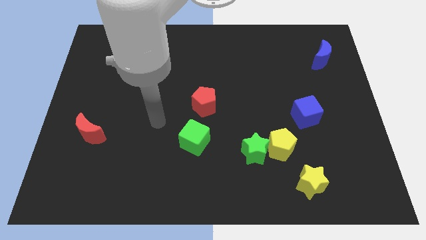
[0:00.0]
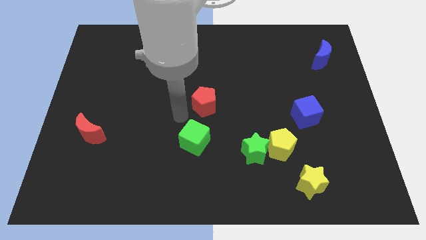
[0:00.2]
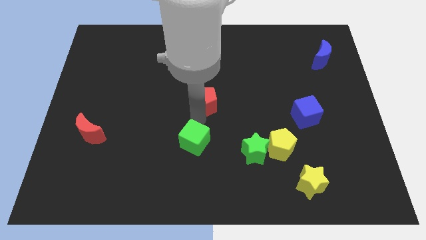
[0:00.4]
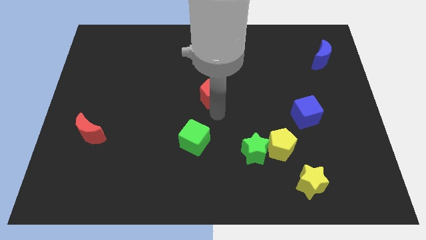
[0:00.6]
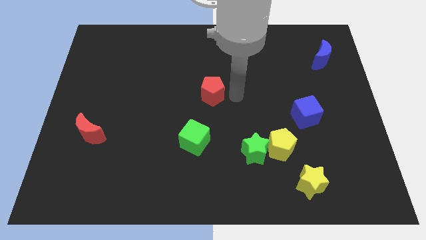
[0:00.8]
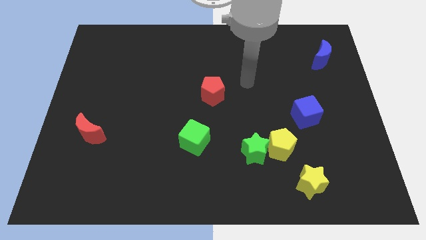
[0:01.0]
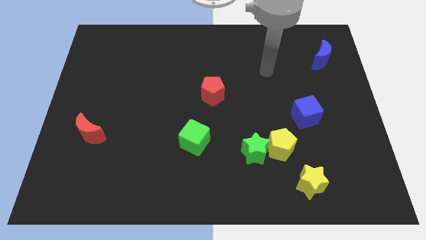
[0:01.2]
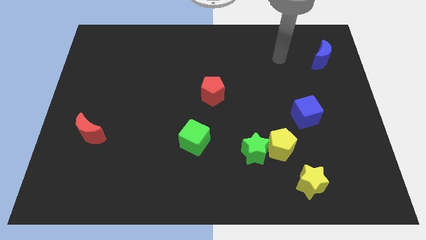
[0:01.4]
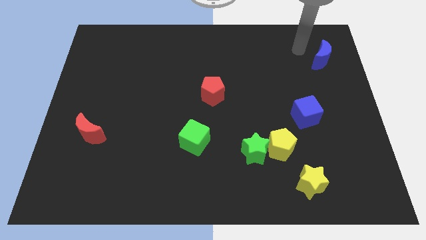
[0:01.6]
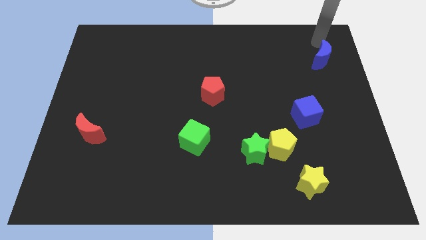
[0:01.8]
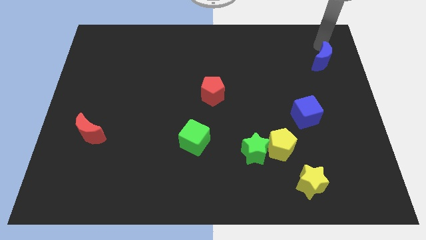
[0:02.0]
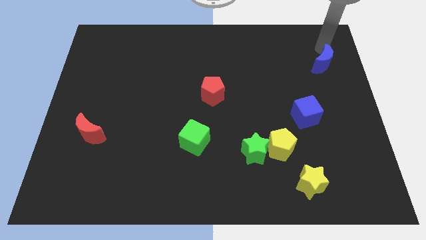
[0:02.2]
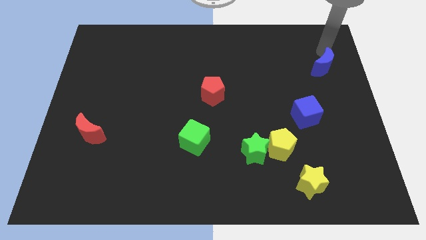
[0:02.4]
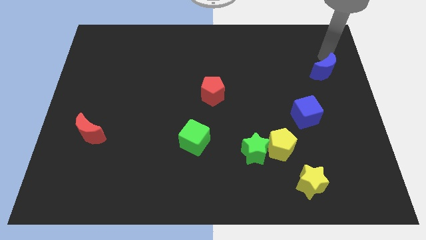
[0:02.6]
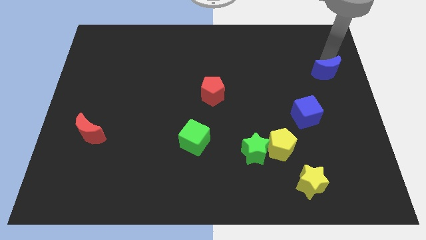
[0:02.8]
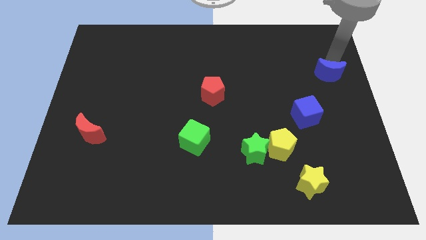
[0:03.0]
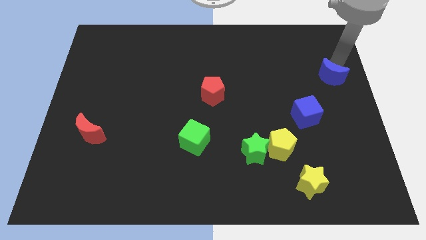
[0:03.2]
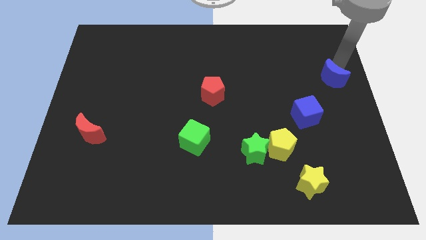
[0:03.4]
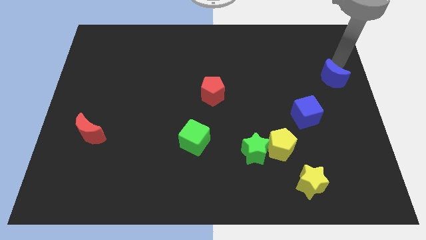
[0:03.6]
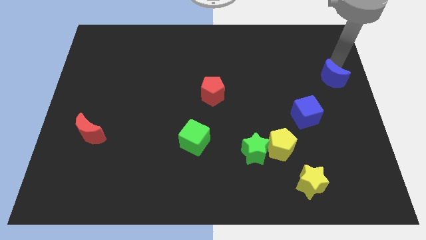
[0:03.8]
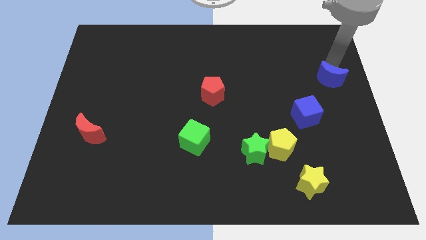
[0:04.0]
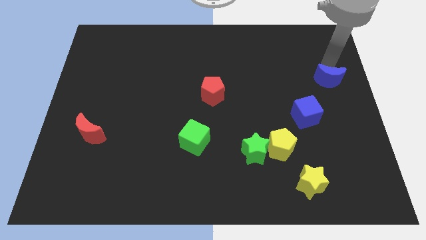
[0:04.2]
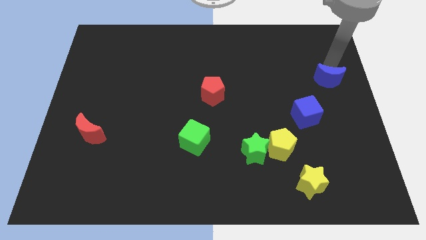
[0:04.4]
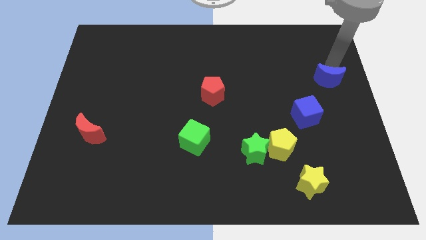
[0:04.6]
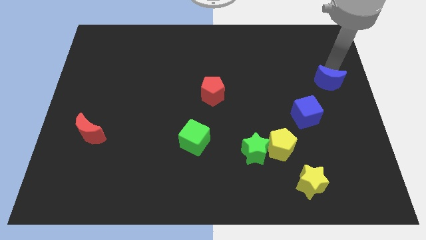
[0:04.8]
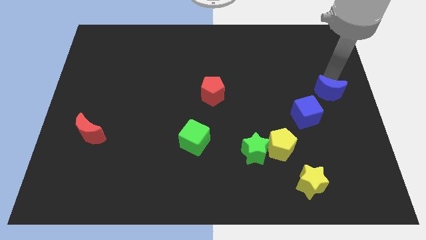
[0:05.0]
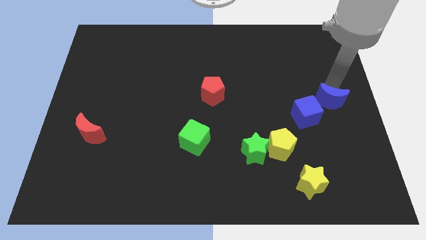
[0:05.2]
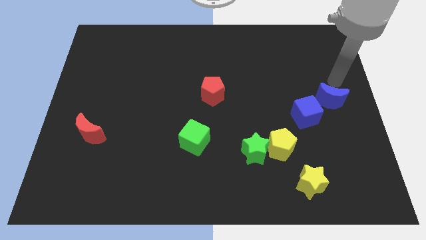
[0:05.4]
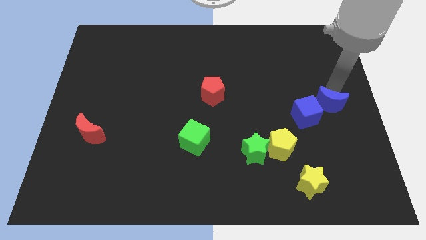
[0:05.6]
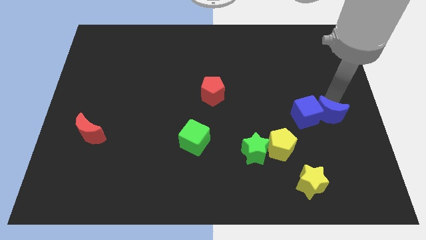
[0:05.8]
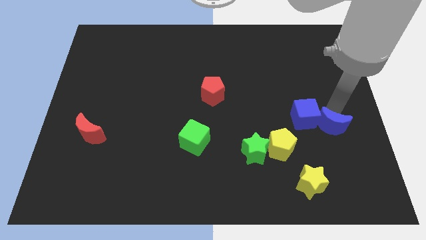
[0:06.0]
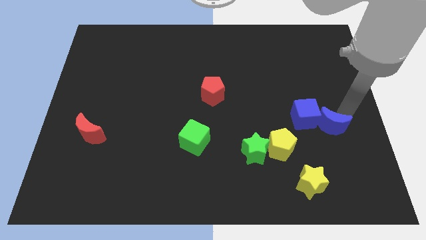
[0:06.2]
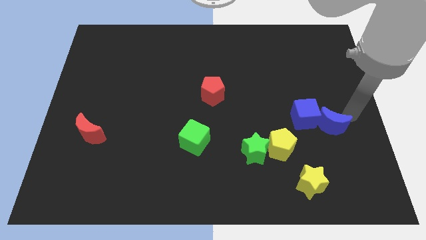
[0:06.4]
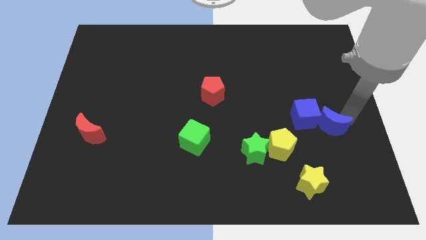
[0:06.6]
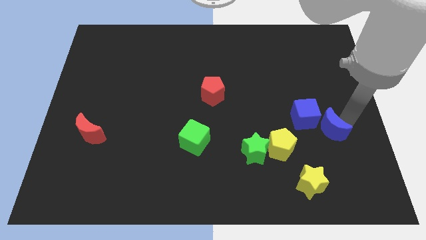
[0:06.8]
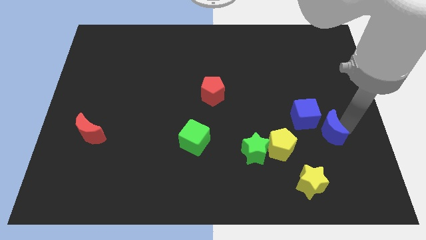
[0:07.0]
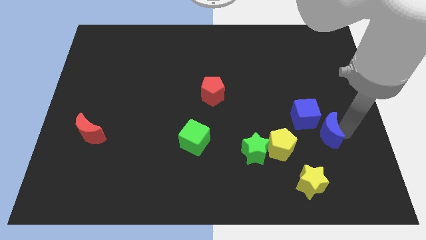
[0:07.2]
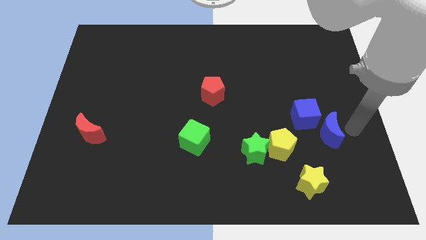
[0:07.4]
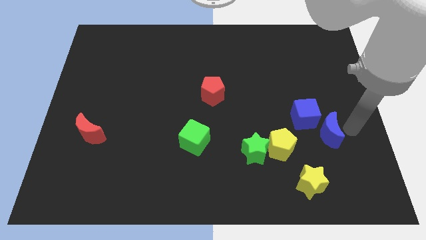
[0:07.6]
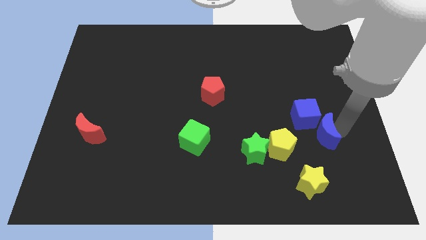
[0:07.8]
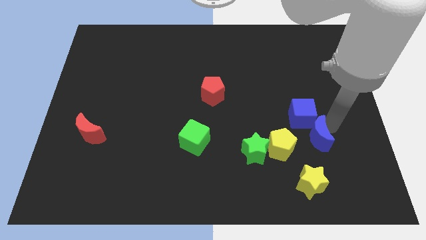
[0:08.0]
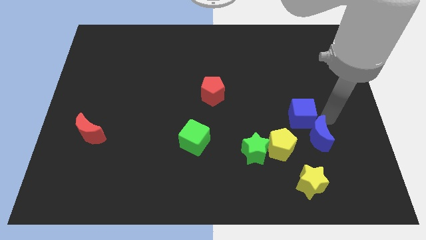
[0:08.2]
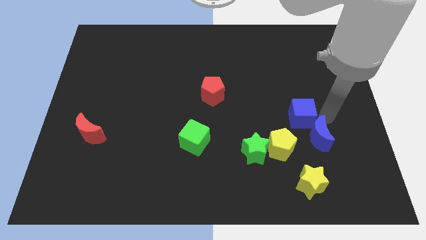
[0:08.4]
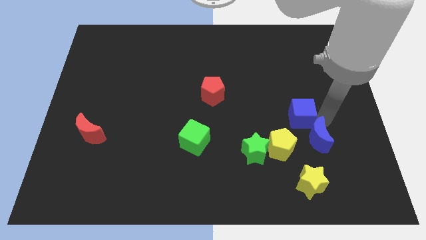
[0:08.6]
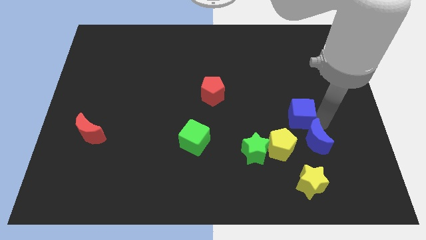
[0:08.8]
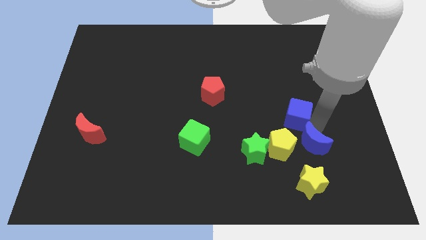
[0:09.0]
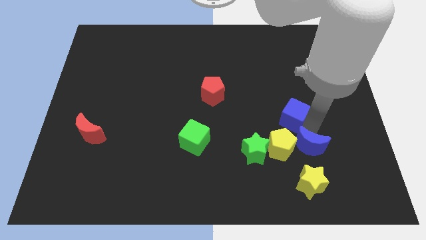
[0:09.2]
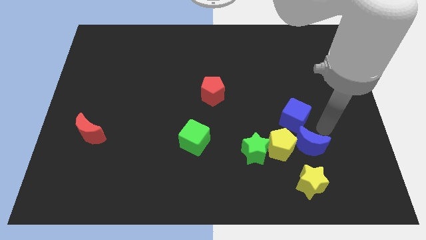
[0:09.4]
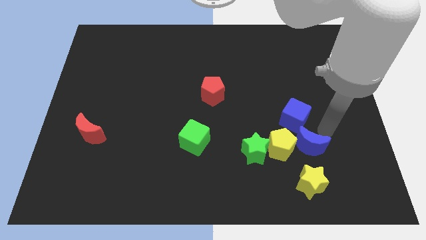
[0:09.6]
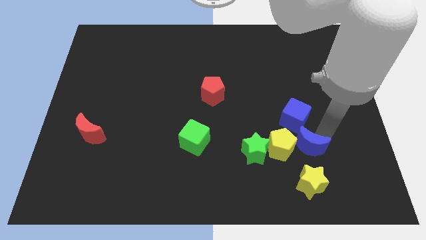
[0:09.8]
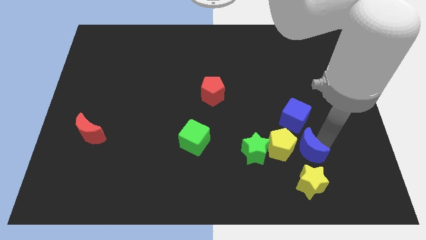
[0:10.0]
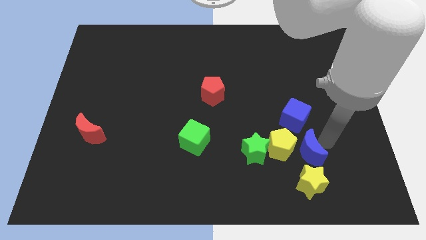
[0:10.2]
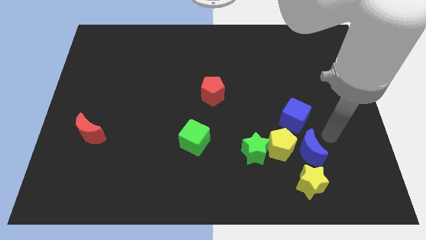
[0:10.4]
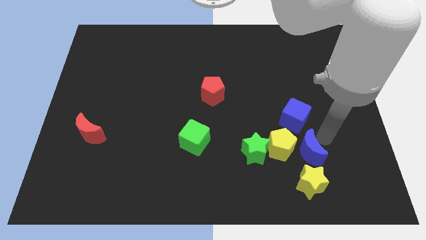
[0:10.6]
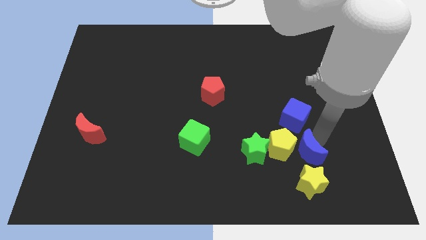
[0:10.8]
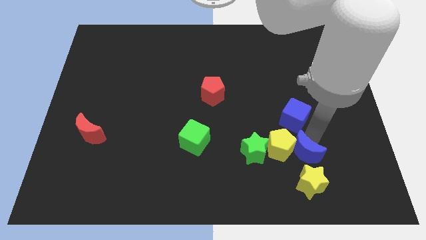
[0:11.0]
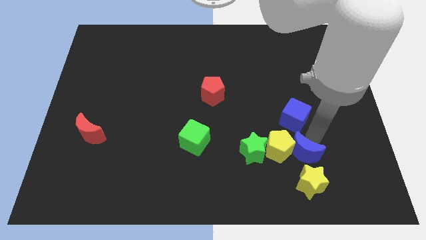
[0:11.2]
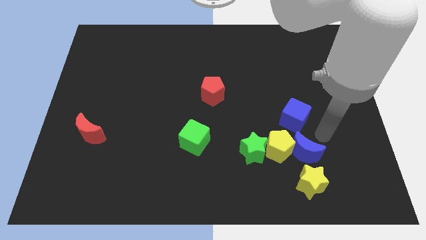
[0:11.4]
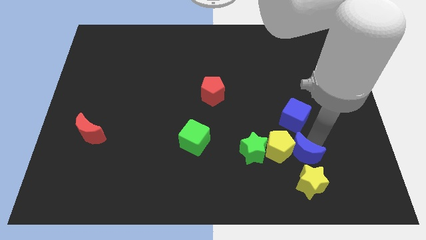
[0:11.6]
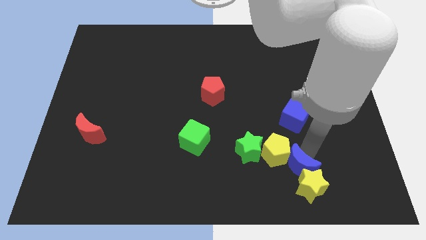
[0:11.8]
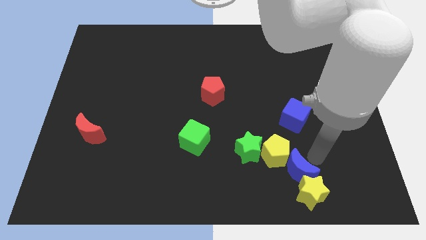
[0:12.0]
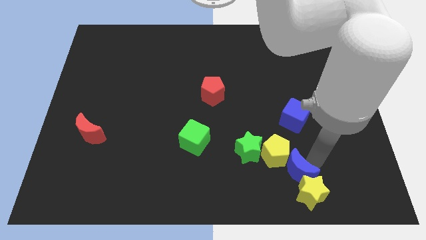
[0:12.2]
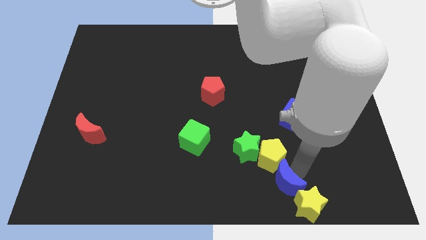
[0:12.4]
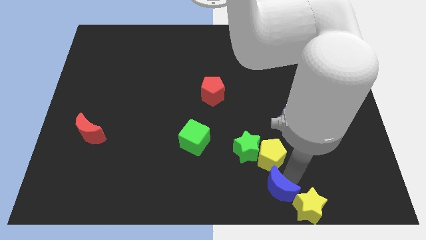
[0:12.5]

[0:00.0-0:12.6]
slide the blue moon to the left of the yellow star
